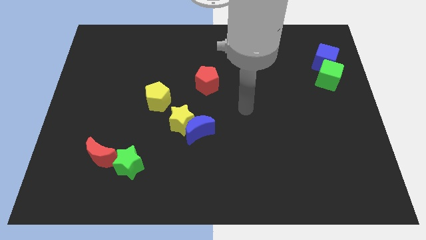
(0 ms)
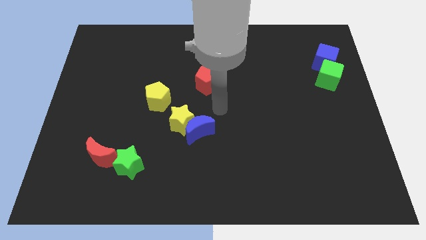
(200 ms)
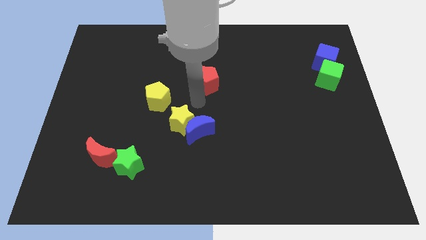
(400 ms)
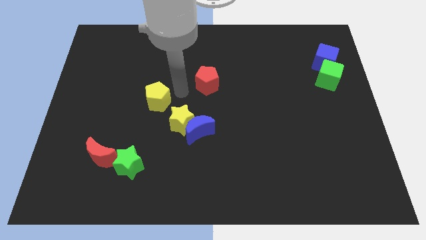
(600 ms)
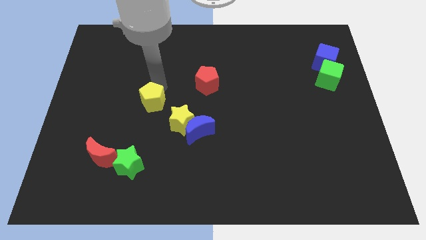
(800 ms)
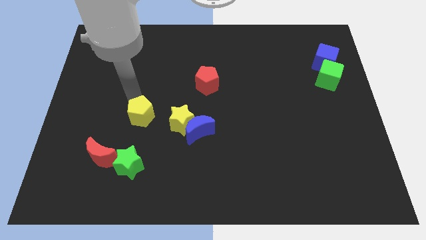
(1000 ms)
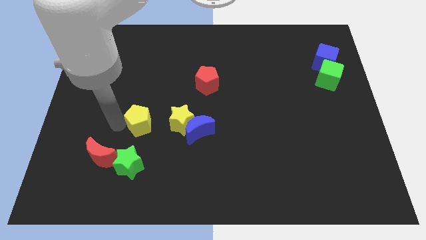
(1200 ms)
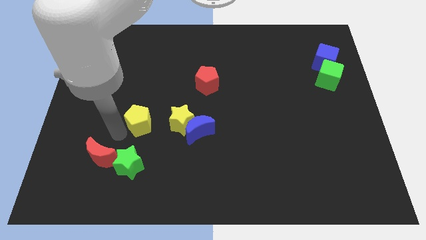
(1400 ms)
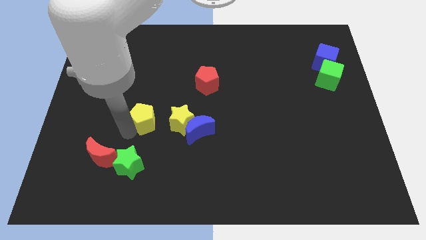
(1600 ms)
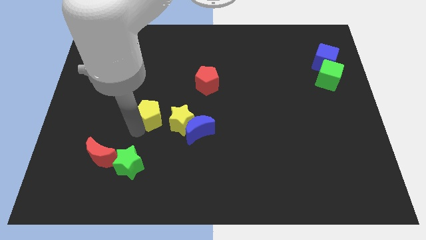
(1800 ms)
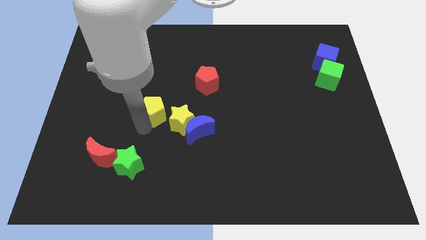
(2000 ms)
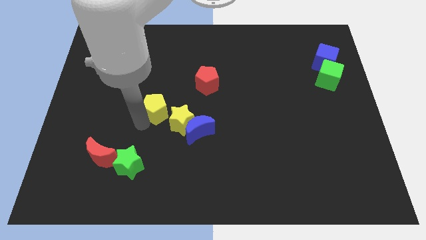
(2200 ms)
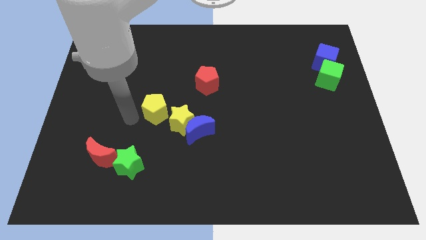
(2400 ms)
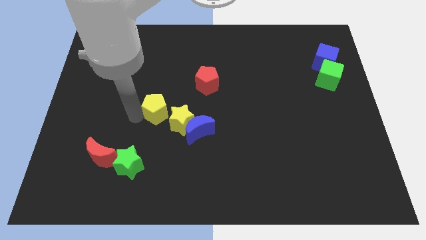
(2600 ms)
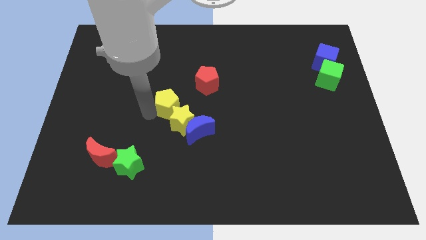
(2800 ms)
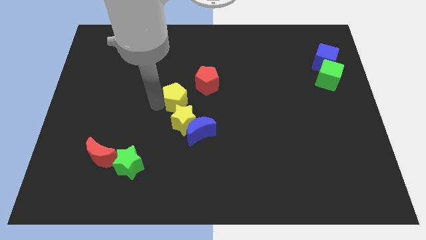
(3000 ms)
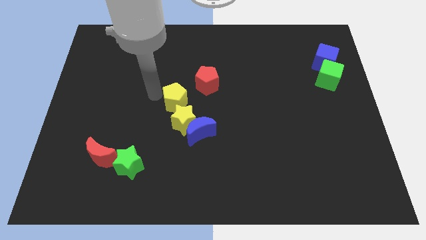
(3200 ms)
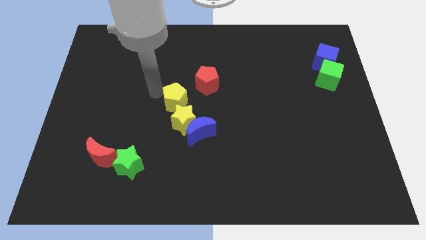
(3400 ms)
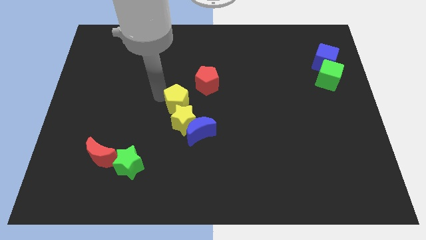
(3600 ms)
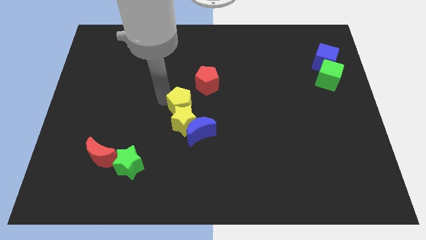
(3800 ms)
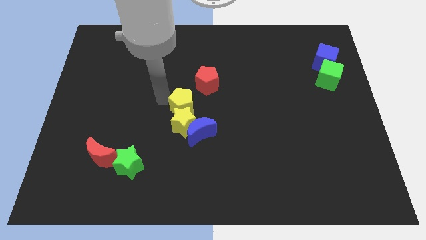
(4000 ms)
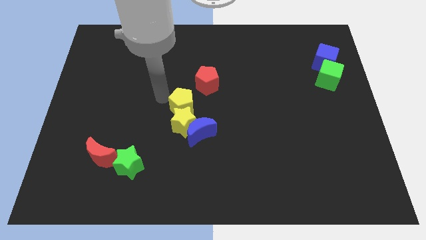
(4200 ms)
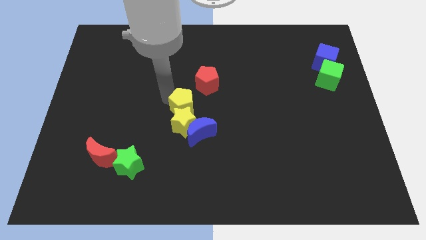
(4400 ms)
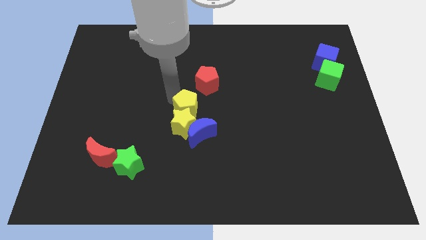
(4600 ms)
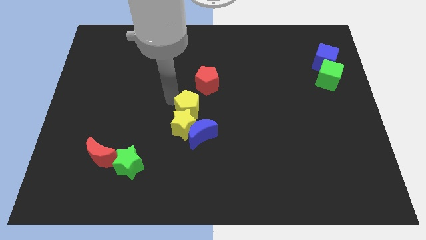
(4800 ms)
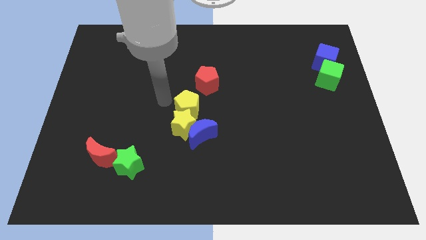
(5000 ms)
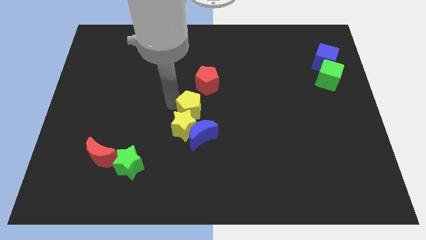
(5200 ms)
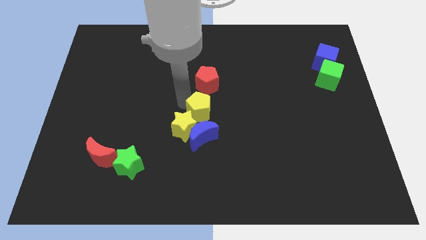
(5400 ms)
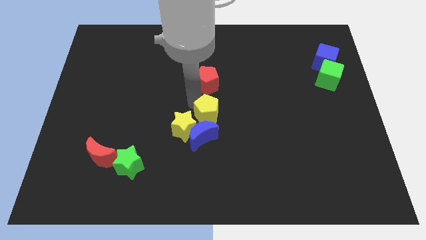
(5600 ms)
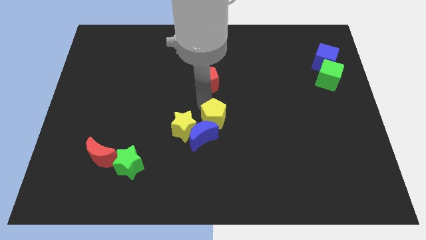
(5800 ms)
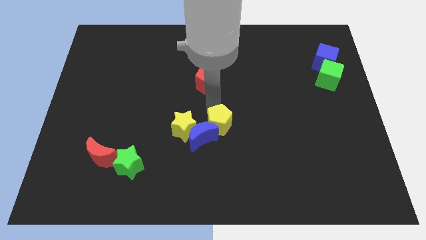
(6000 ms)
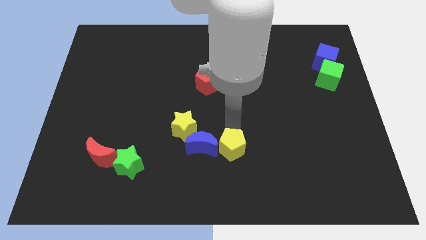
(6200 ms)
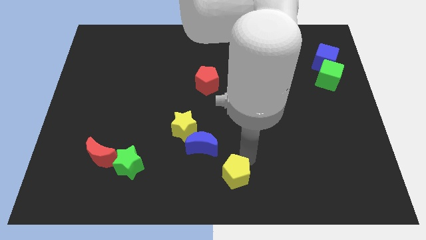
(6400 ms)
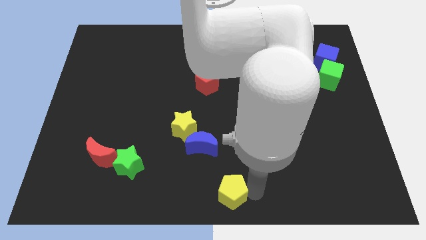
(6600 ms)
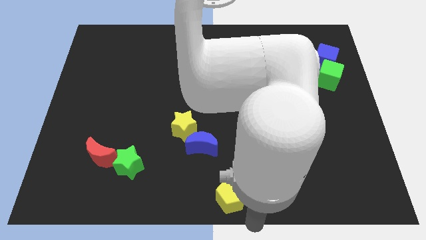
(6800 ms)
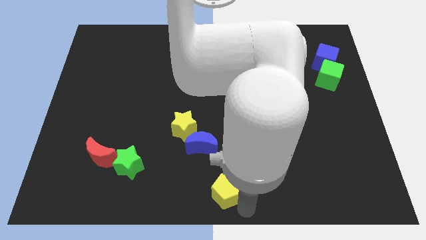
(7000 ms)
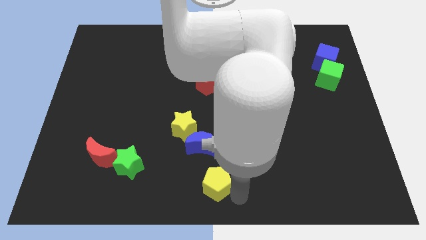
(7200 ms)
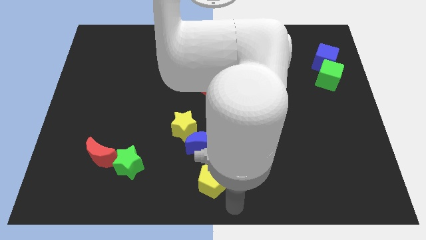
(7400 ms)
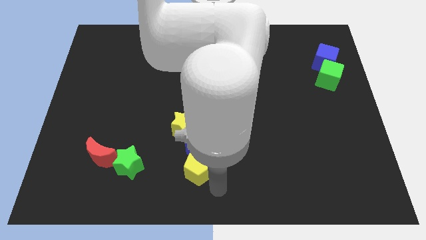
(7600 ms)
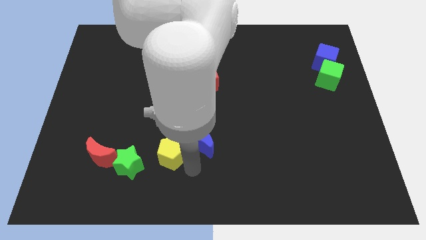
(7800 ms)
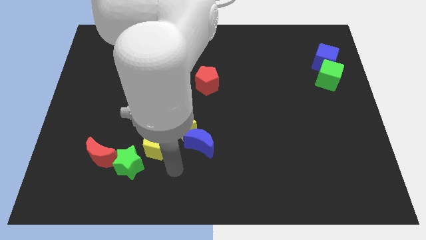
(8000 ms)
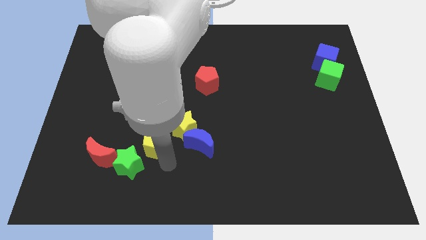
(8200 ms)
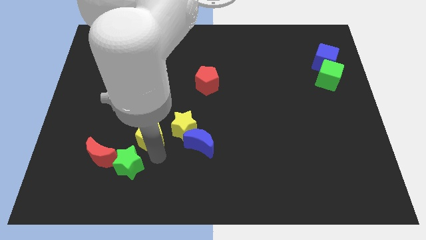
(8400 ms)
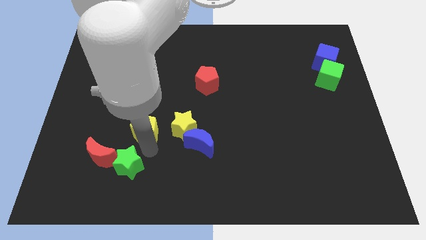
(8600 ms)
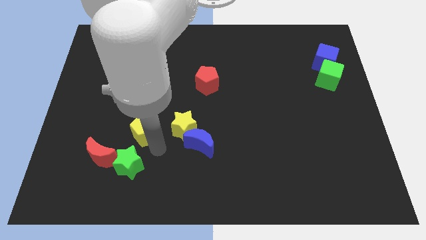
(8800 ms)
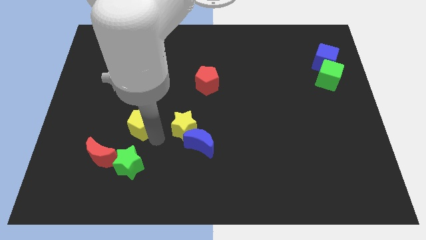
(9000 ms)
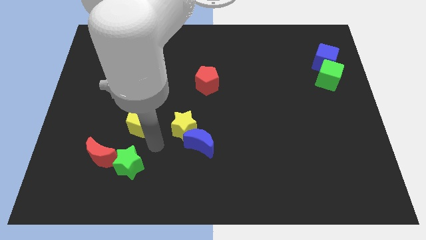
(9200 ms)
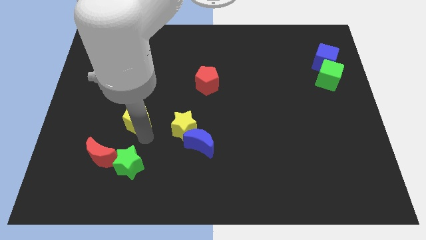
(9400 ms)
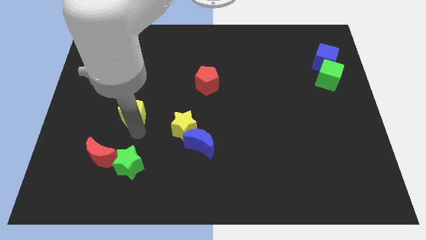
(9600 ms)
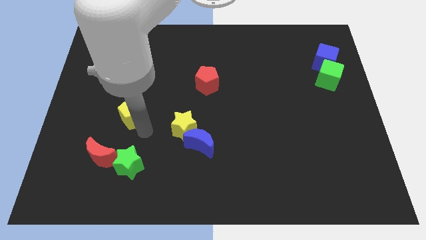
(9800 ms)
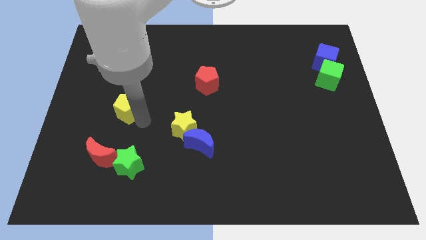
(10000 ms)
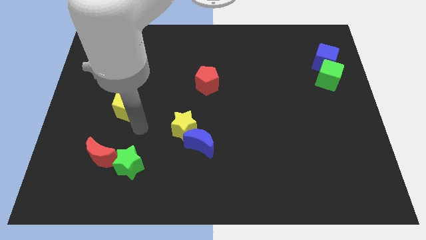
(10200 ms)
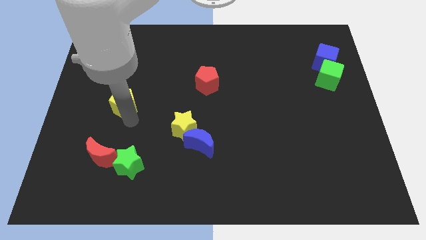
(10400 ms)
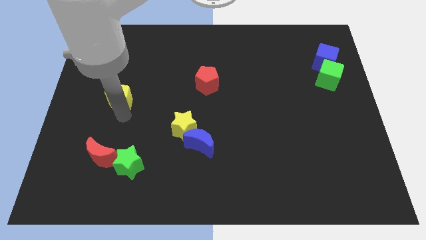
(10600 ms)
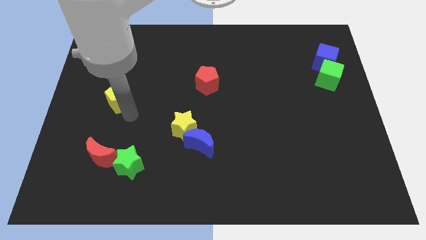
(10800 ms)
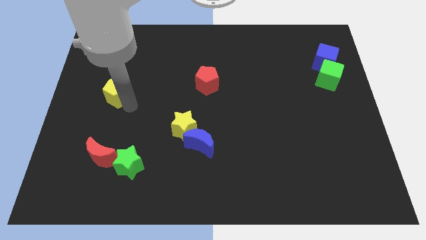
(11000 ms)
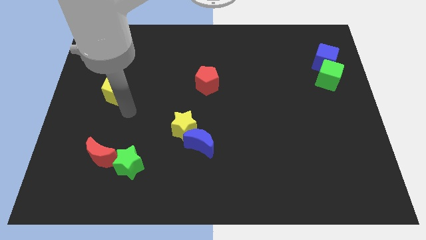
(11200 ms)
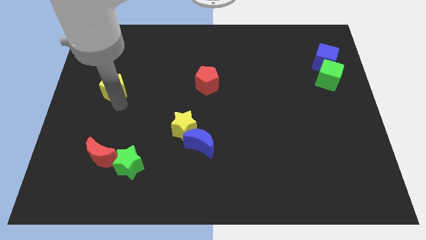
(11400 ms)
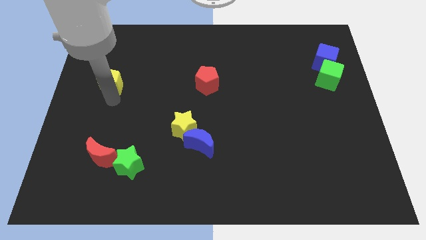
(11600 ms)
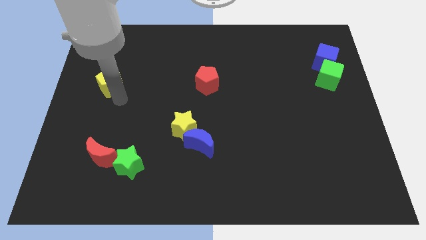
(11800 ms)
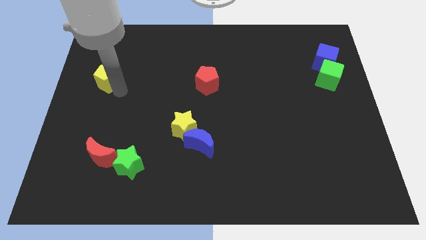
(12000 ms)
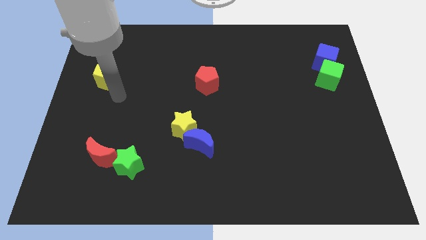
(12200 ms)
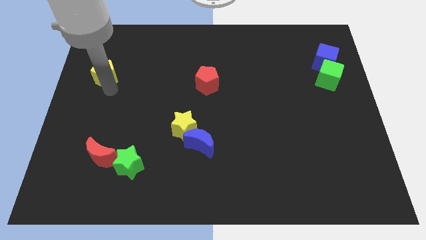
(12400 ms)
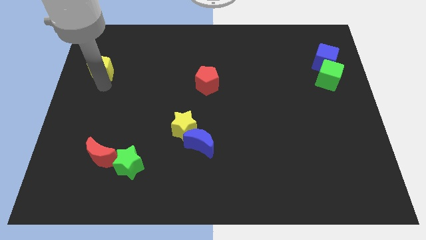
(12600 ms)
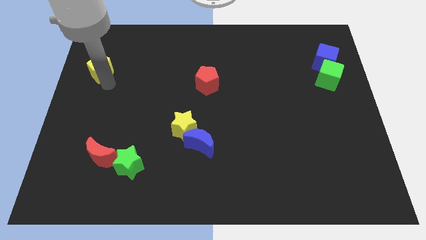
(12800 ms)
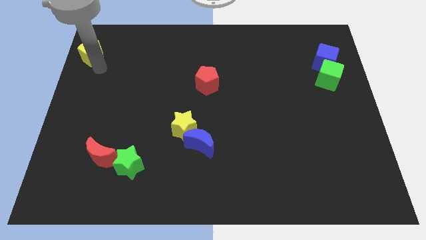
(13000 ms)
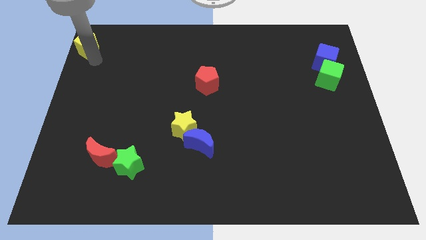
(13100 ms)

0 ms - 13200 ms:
put the yellow pentagon to the top left corner

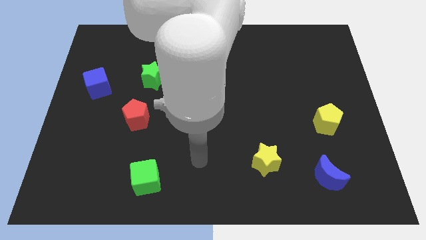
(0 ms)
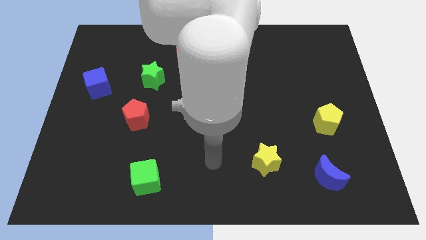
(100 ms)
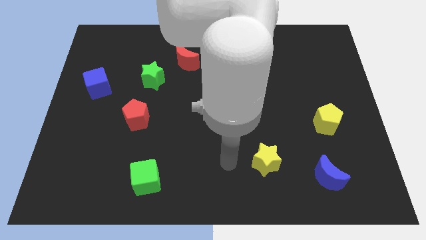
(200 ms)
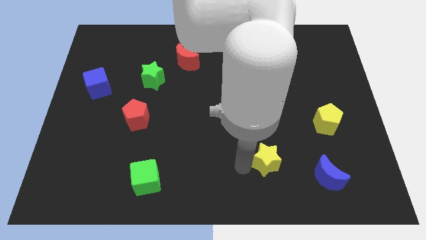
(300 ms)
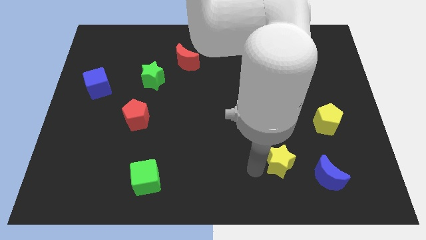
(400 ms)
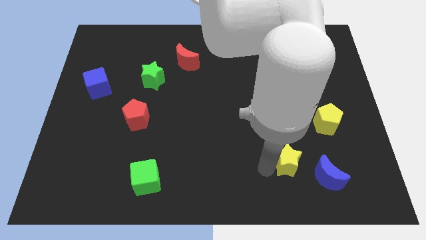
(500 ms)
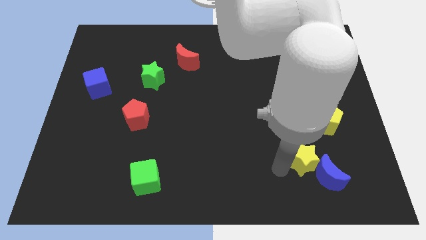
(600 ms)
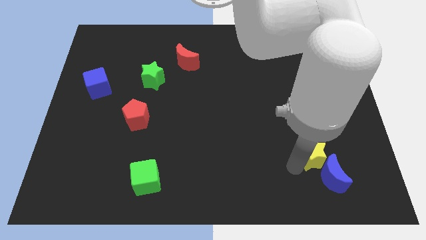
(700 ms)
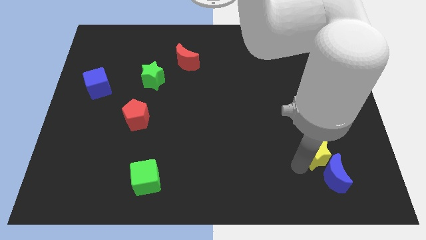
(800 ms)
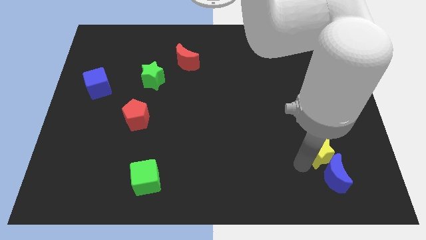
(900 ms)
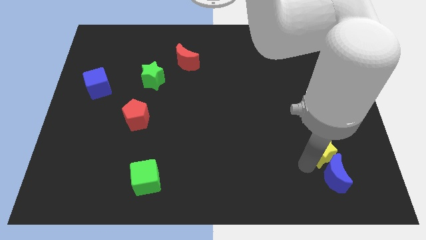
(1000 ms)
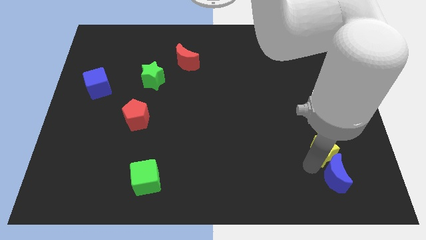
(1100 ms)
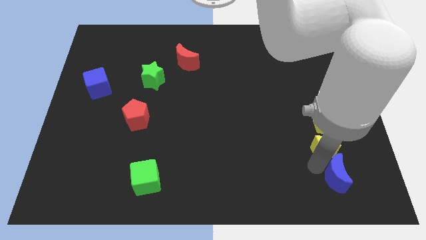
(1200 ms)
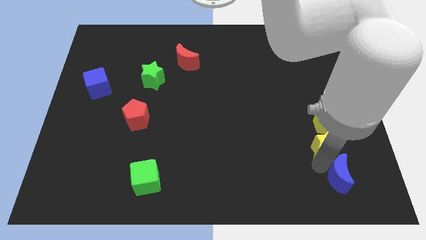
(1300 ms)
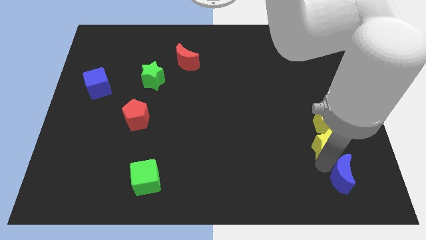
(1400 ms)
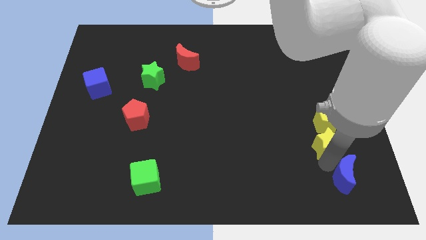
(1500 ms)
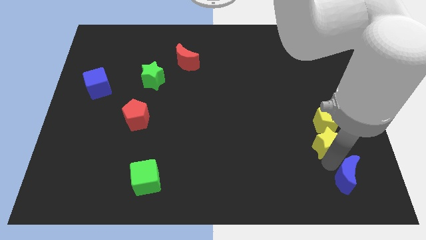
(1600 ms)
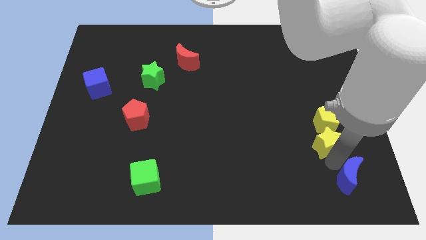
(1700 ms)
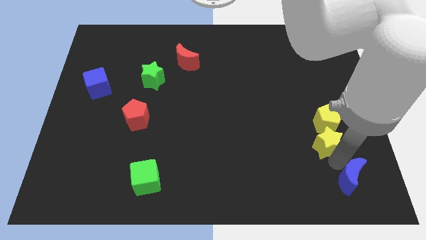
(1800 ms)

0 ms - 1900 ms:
move the blue moon to the bottom right corner
